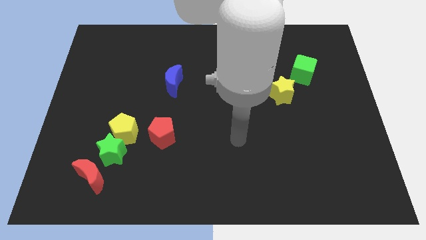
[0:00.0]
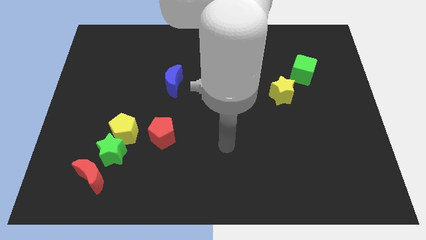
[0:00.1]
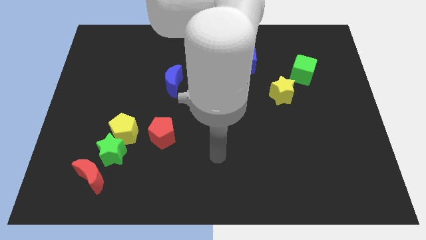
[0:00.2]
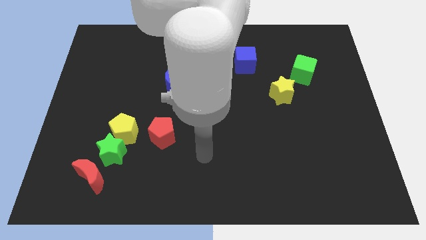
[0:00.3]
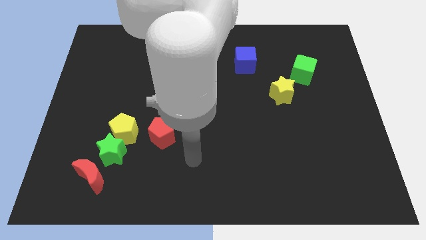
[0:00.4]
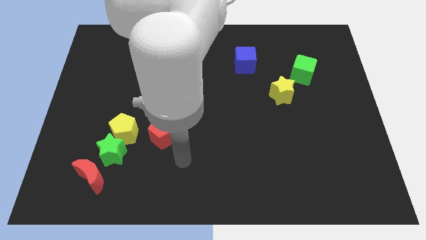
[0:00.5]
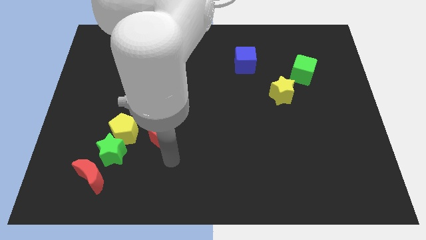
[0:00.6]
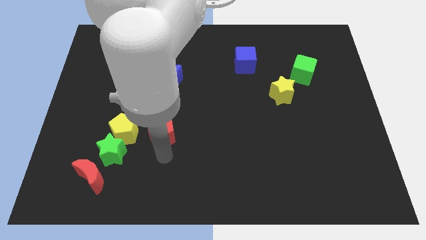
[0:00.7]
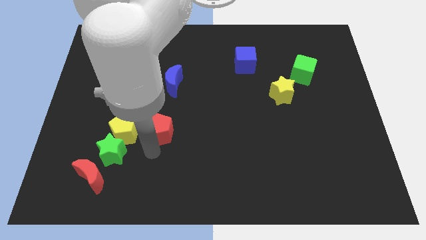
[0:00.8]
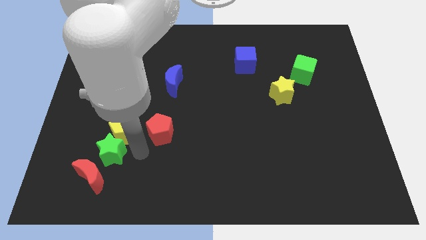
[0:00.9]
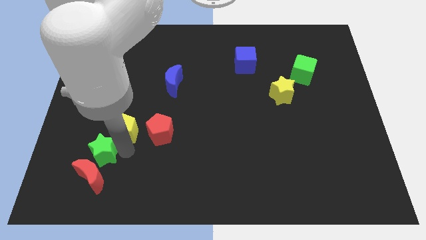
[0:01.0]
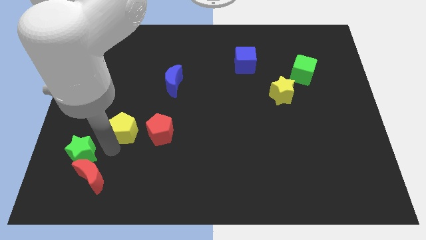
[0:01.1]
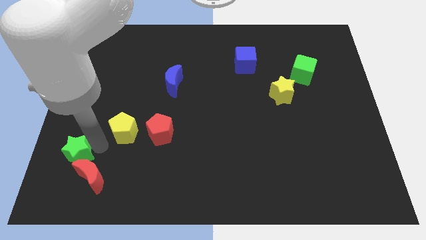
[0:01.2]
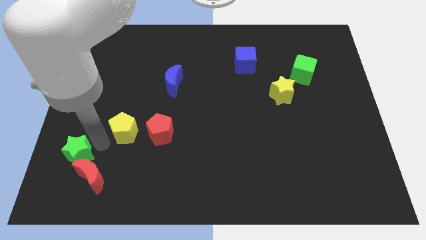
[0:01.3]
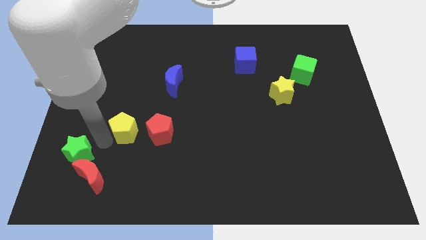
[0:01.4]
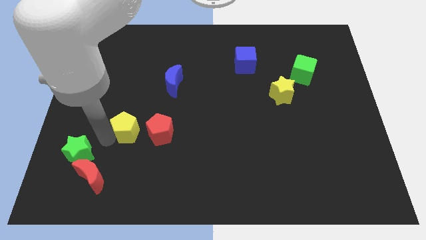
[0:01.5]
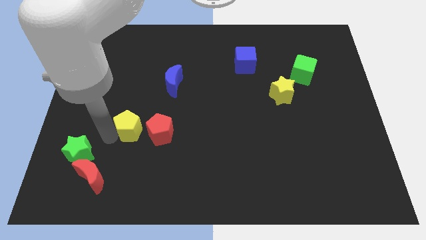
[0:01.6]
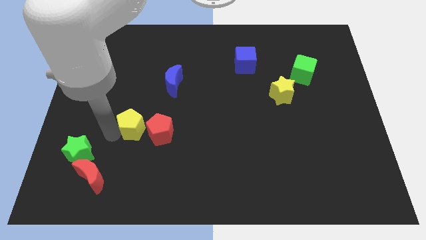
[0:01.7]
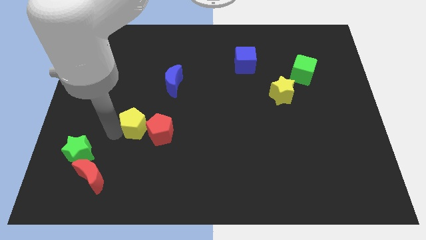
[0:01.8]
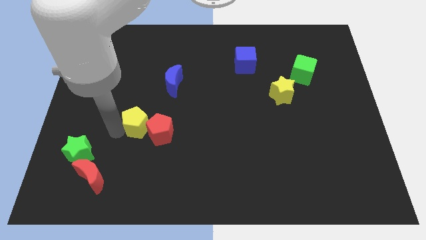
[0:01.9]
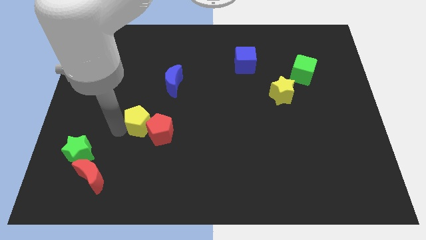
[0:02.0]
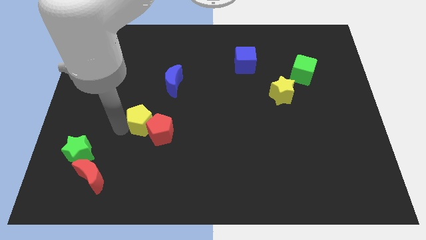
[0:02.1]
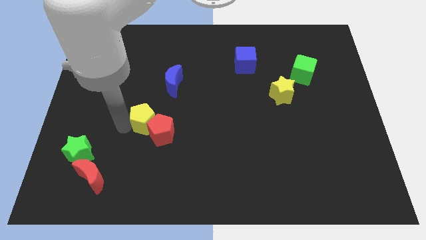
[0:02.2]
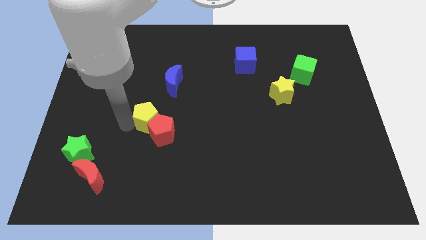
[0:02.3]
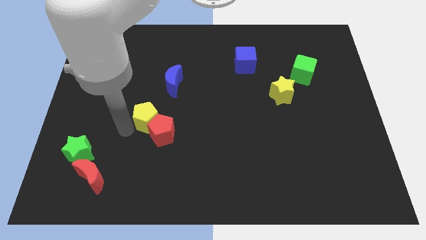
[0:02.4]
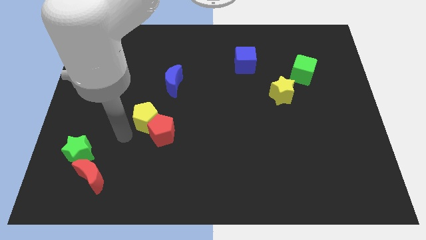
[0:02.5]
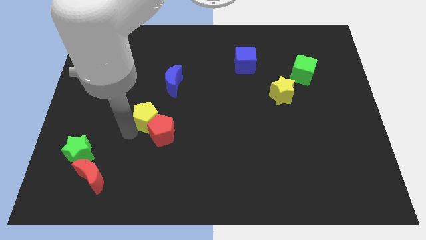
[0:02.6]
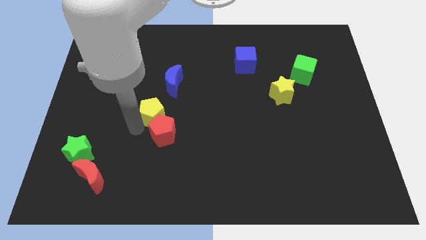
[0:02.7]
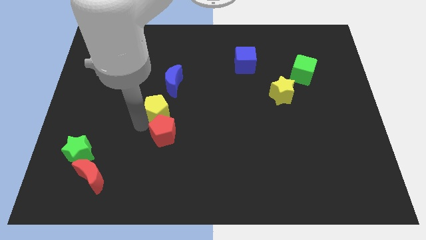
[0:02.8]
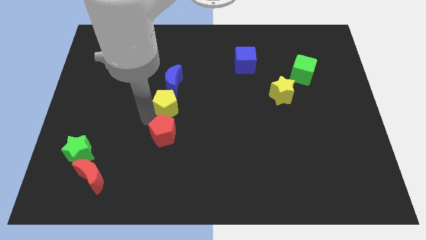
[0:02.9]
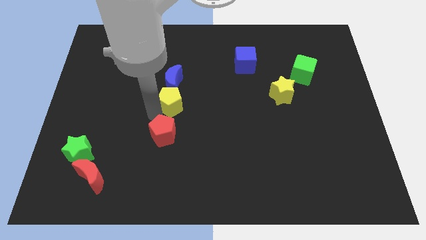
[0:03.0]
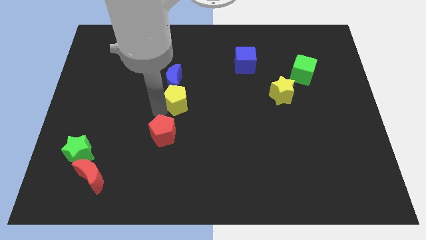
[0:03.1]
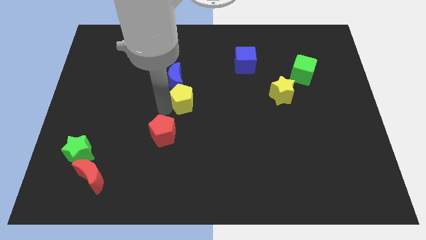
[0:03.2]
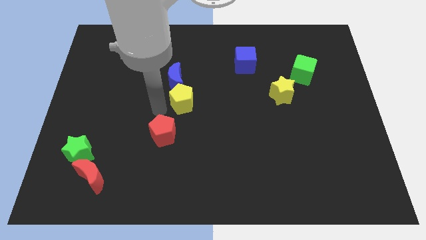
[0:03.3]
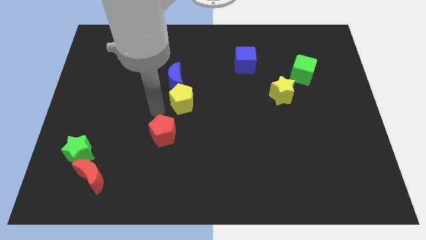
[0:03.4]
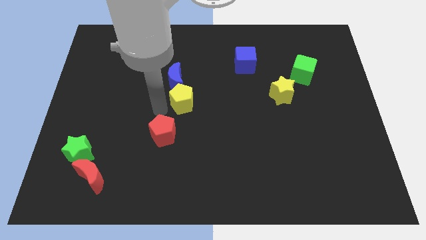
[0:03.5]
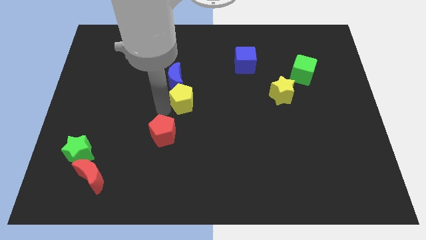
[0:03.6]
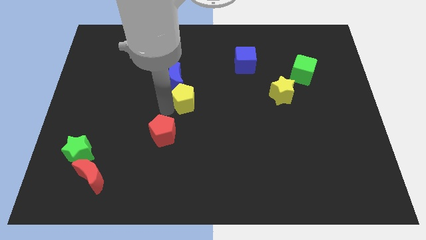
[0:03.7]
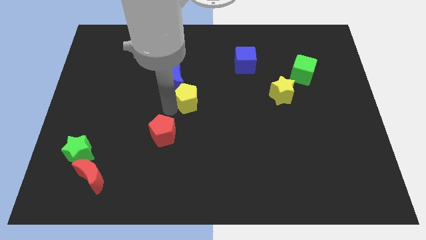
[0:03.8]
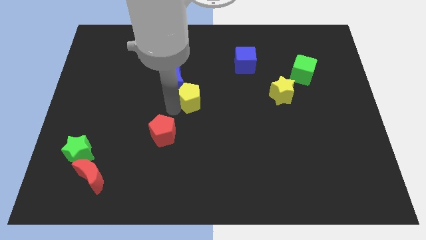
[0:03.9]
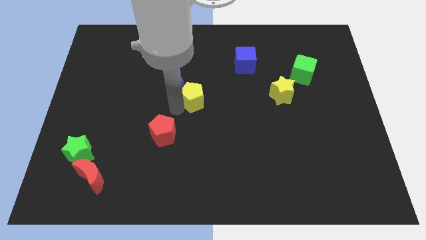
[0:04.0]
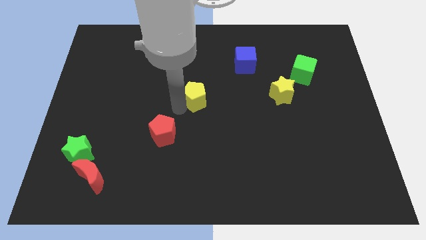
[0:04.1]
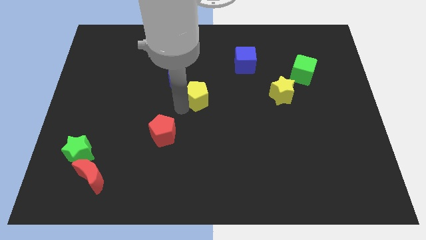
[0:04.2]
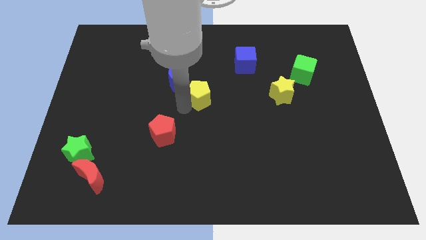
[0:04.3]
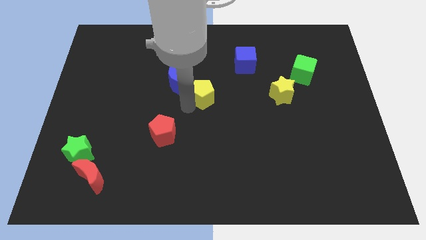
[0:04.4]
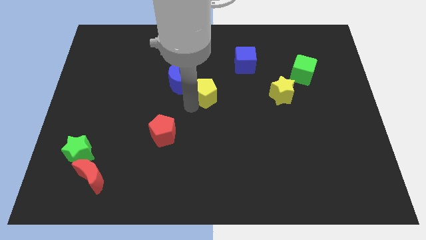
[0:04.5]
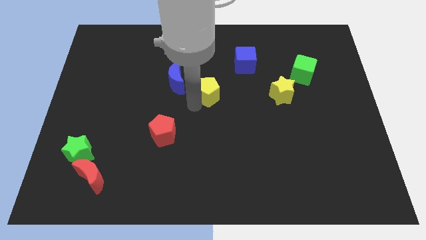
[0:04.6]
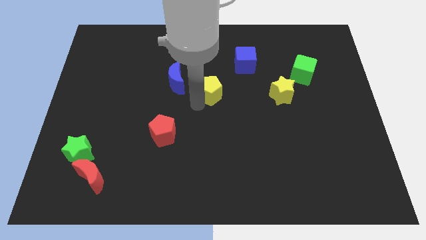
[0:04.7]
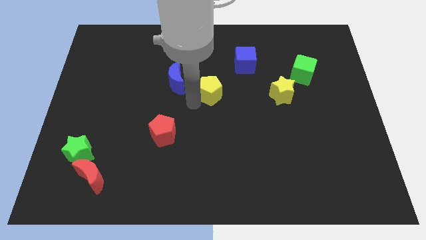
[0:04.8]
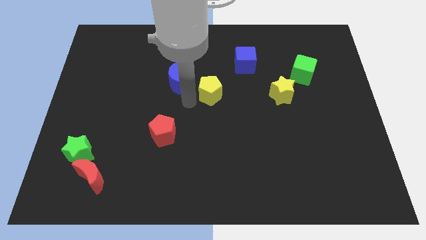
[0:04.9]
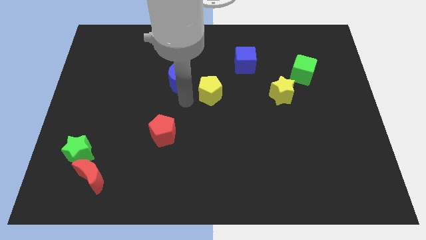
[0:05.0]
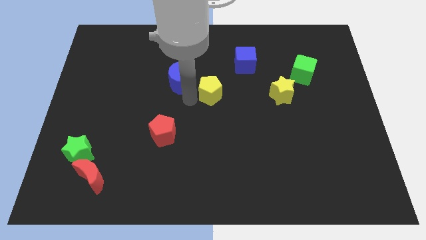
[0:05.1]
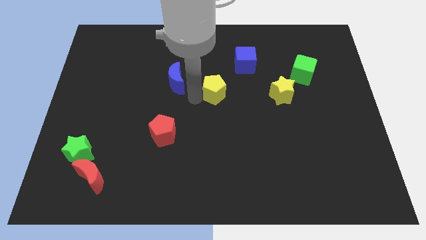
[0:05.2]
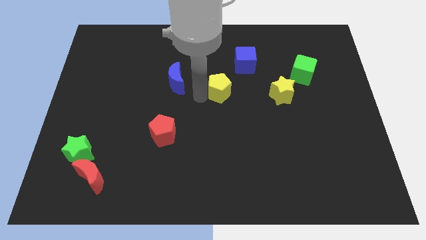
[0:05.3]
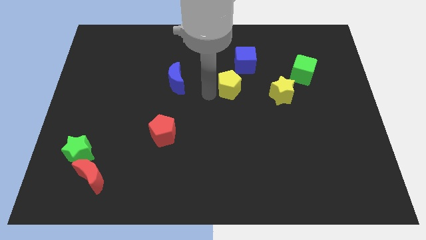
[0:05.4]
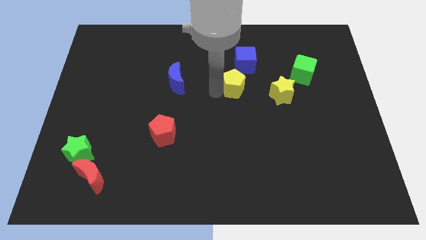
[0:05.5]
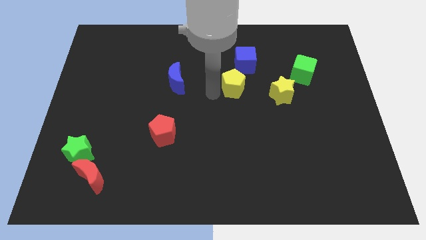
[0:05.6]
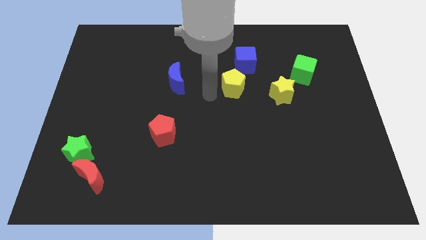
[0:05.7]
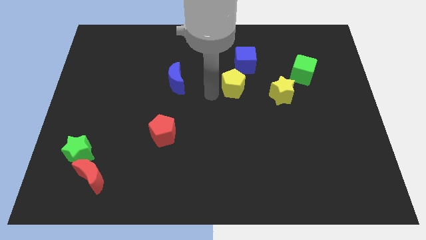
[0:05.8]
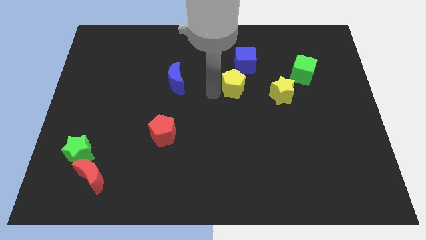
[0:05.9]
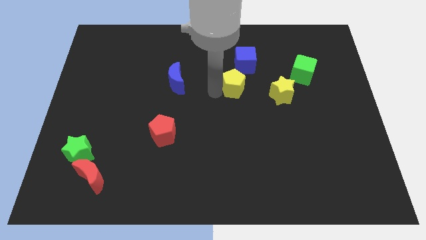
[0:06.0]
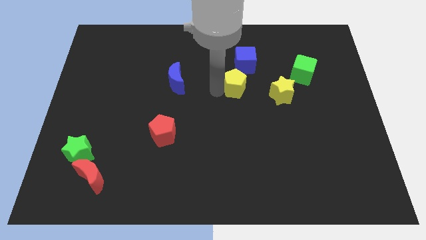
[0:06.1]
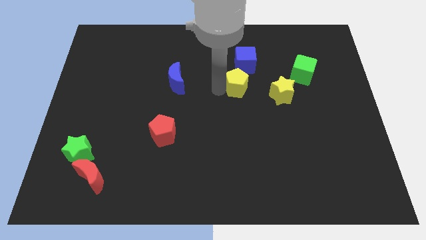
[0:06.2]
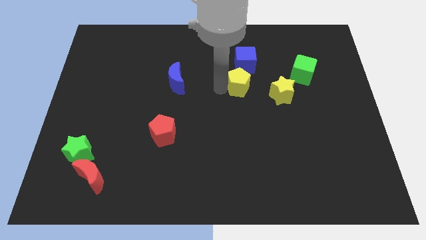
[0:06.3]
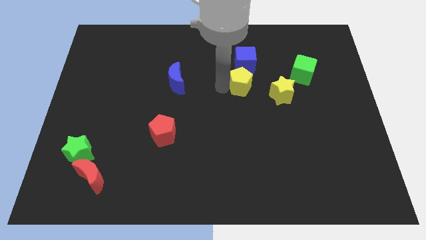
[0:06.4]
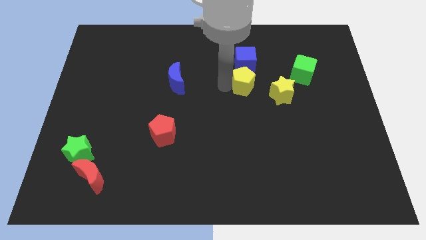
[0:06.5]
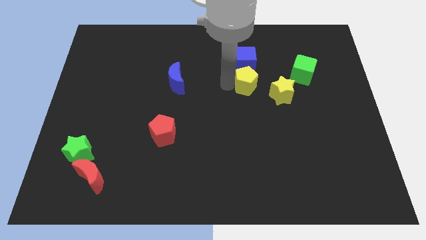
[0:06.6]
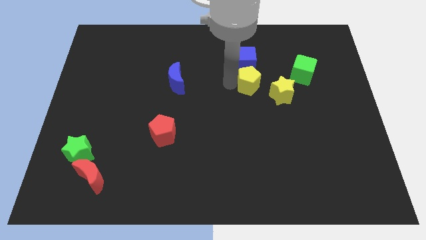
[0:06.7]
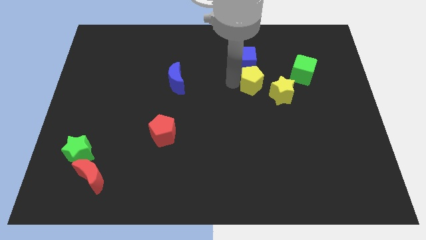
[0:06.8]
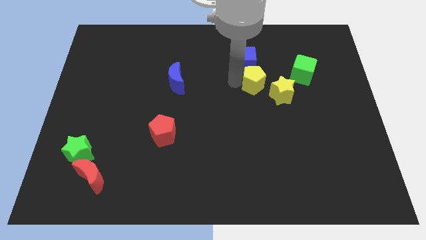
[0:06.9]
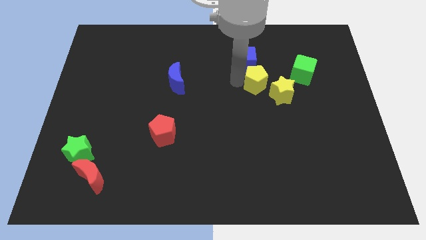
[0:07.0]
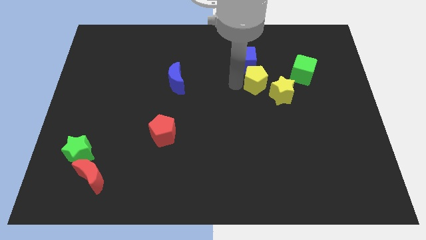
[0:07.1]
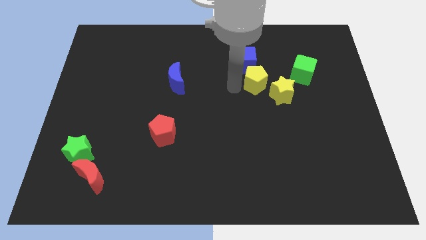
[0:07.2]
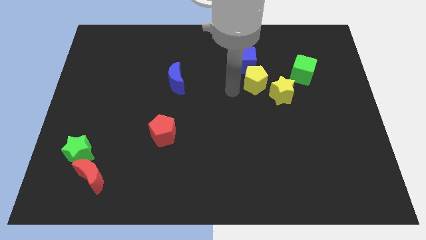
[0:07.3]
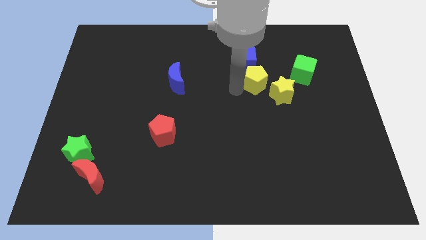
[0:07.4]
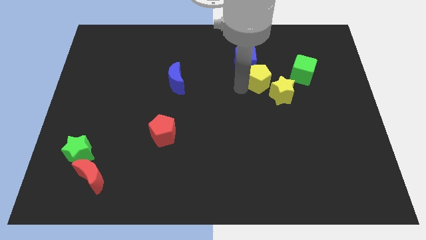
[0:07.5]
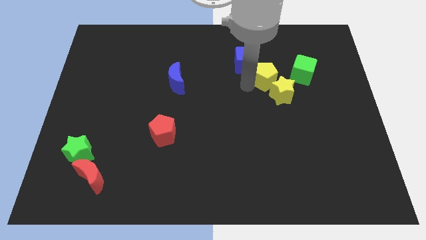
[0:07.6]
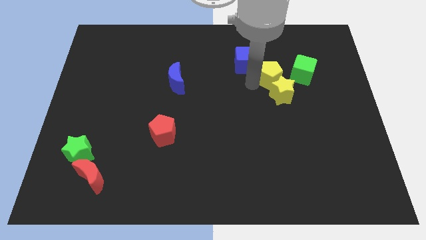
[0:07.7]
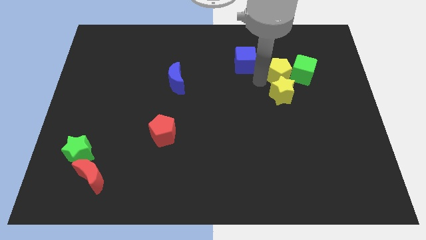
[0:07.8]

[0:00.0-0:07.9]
put the yellow pentagon towards the green cube
